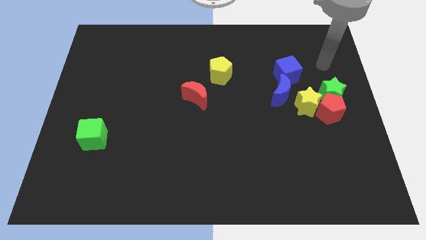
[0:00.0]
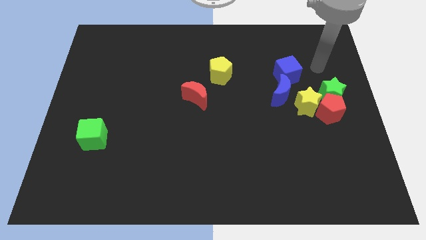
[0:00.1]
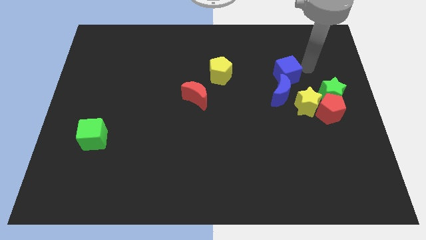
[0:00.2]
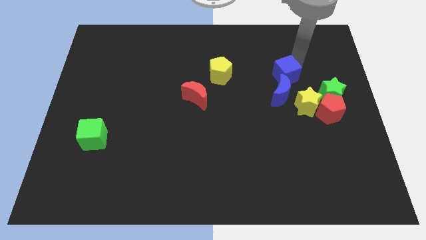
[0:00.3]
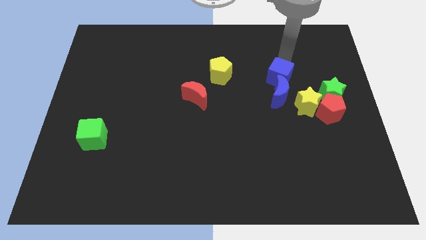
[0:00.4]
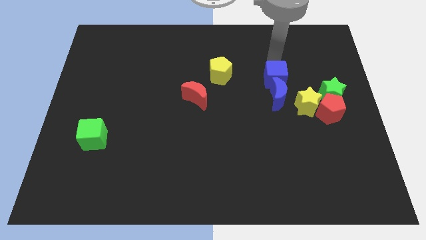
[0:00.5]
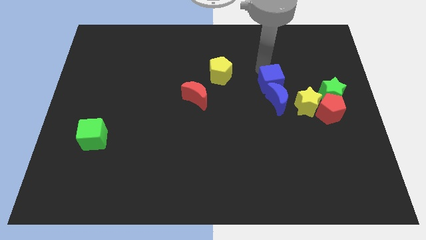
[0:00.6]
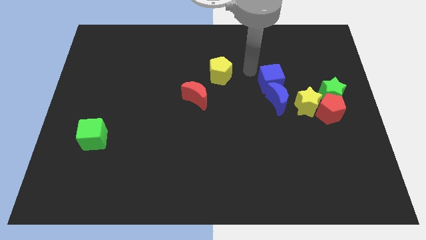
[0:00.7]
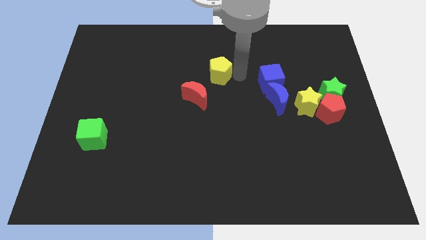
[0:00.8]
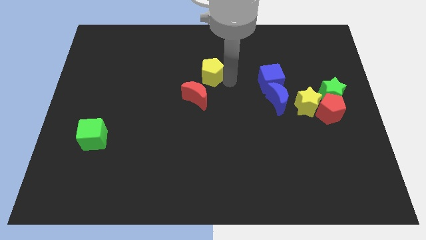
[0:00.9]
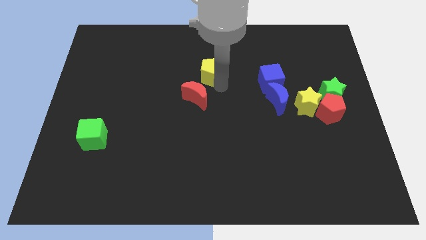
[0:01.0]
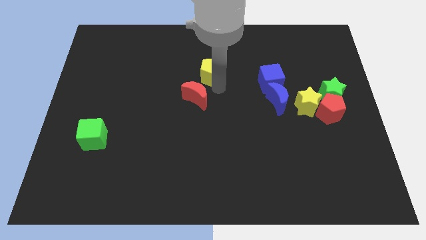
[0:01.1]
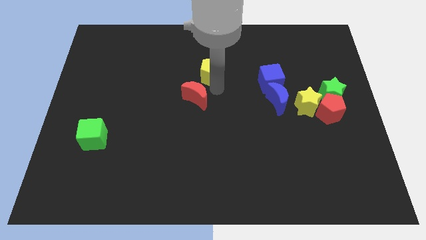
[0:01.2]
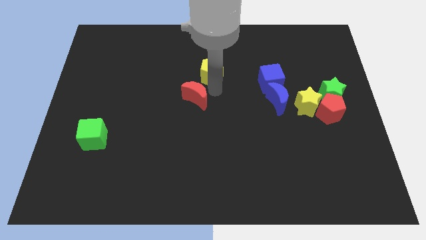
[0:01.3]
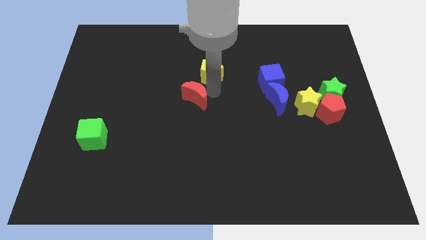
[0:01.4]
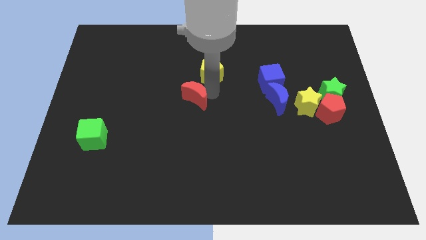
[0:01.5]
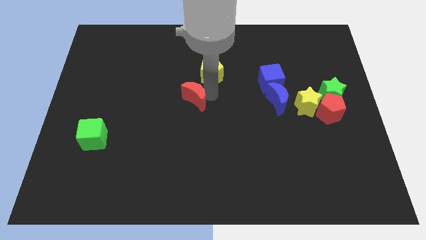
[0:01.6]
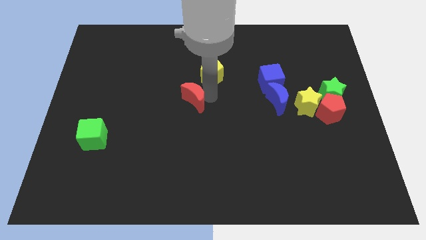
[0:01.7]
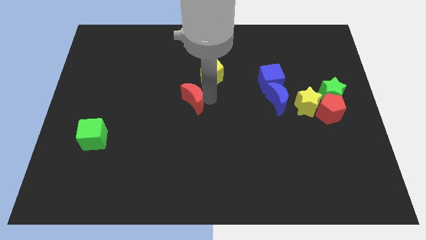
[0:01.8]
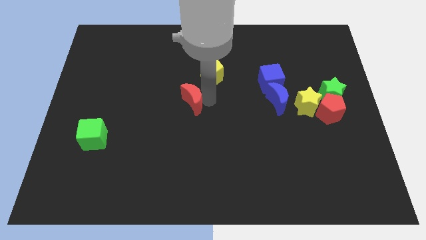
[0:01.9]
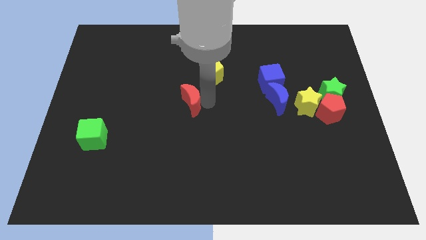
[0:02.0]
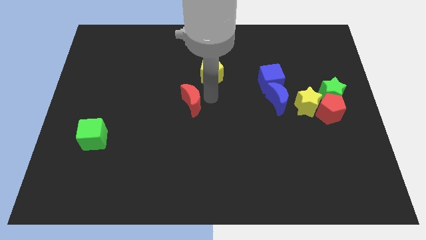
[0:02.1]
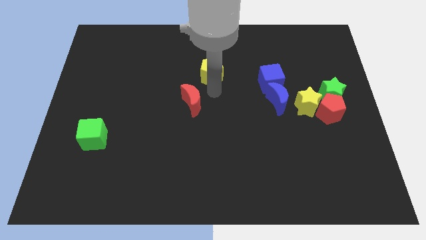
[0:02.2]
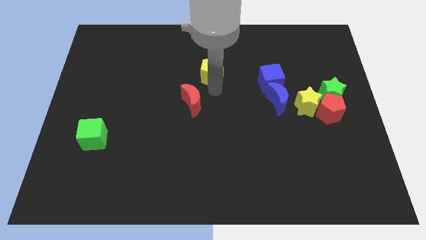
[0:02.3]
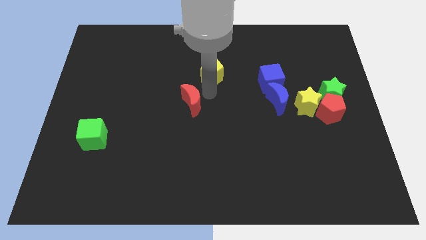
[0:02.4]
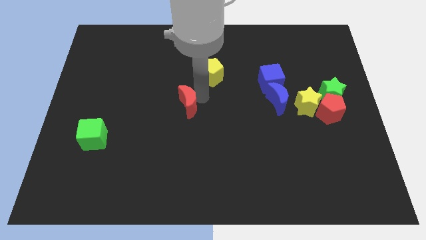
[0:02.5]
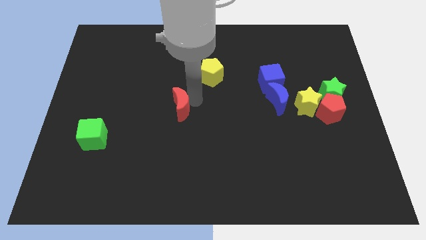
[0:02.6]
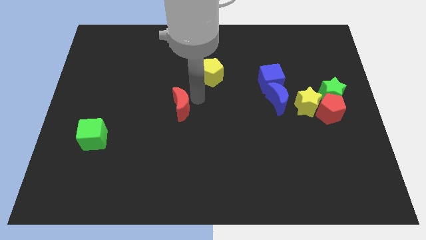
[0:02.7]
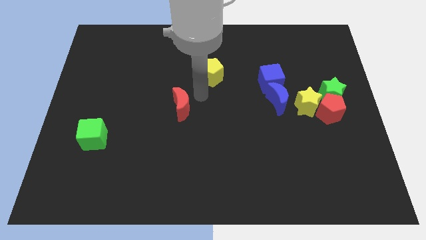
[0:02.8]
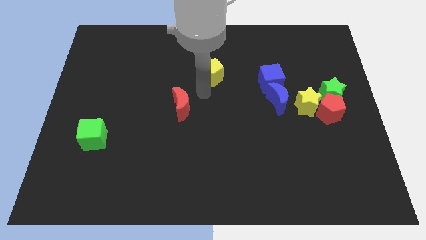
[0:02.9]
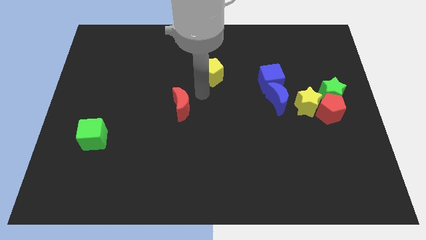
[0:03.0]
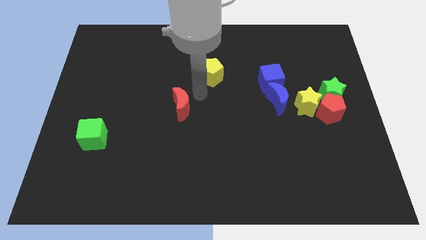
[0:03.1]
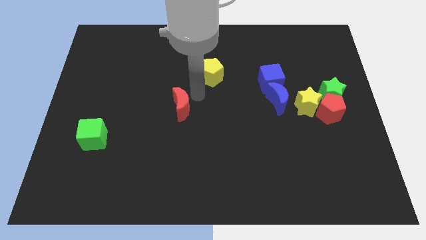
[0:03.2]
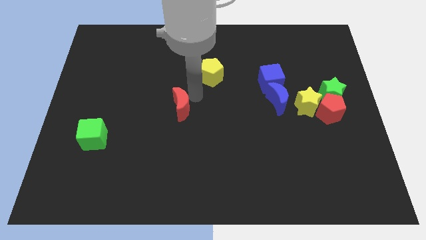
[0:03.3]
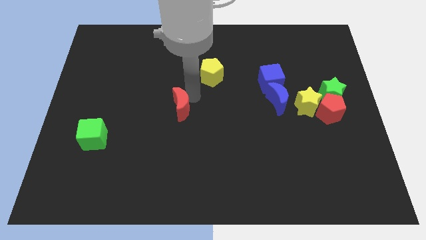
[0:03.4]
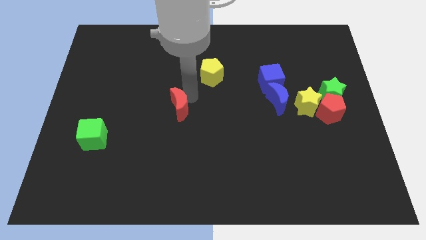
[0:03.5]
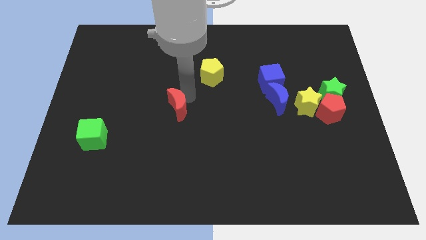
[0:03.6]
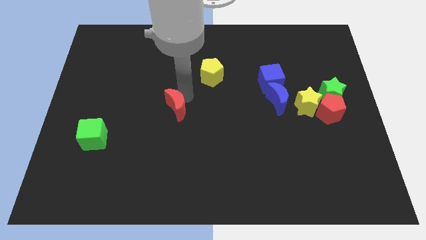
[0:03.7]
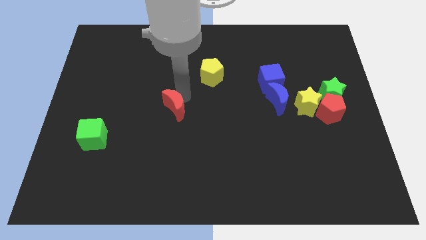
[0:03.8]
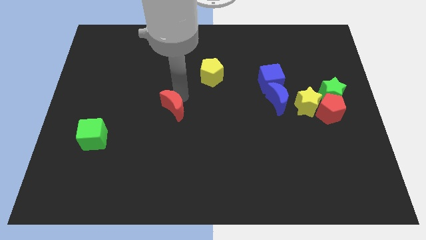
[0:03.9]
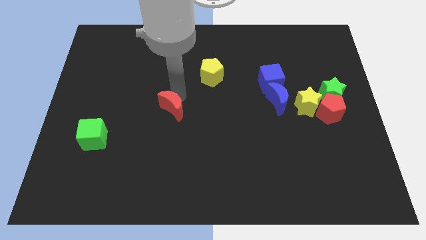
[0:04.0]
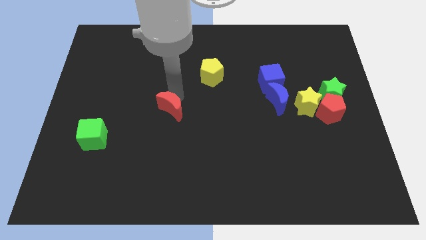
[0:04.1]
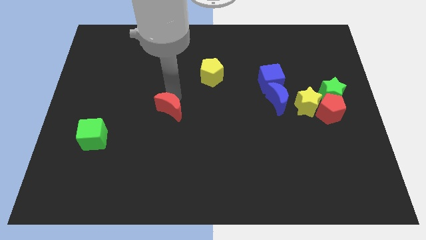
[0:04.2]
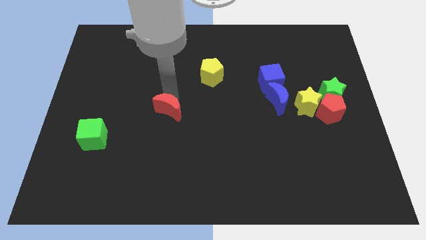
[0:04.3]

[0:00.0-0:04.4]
move the red moon somewhat down and then to the left

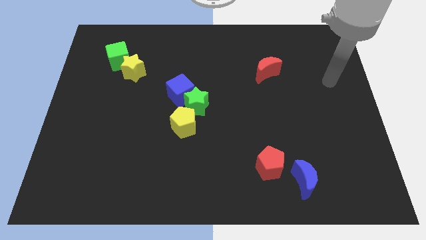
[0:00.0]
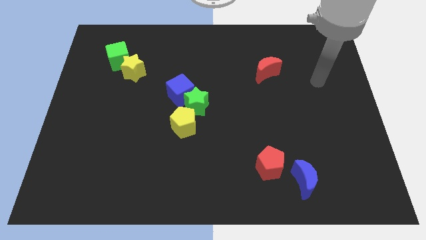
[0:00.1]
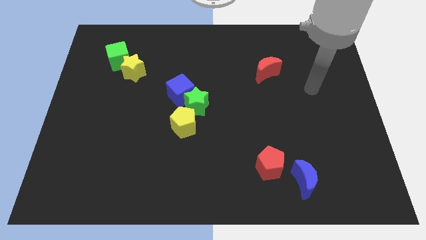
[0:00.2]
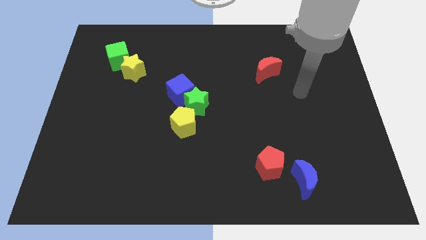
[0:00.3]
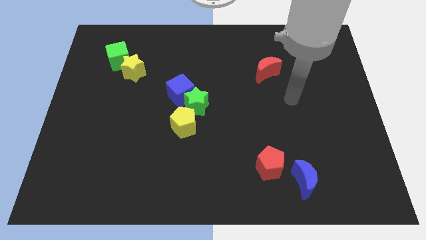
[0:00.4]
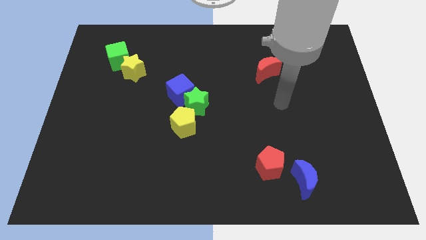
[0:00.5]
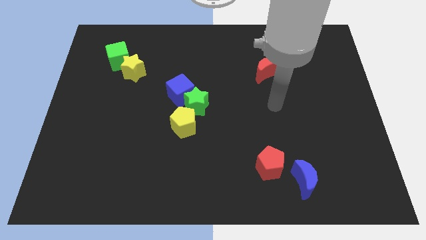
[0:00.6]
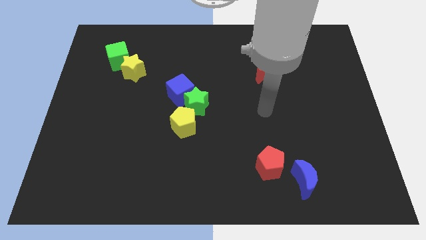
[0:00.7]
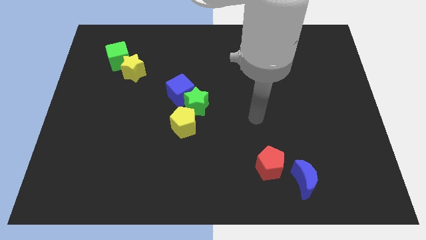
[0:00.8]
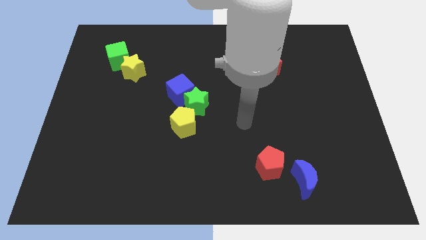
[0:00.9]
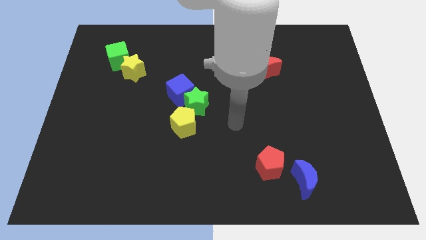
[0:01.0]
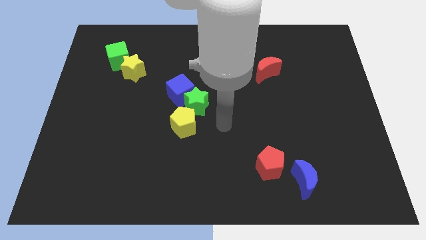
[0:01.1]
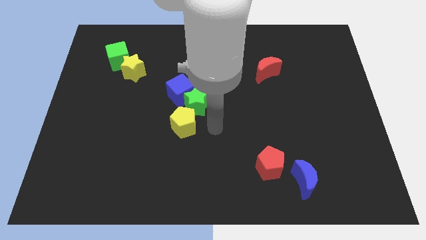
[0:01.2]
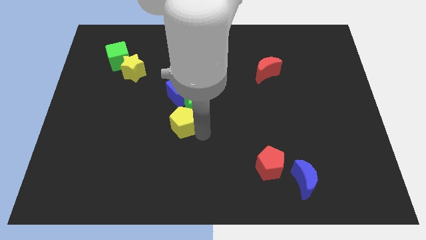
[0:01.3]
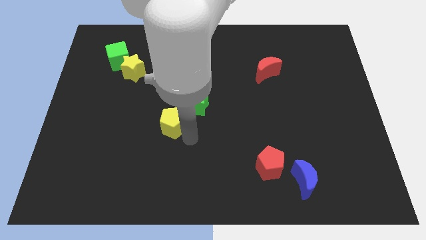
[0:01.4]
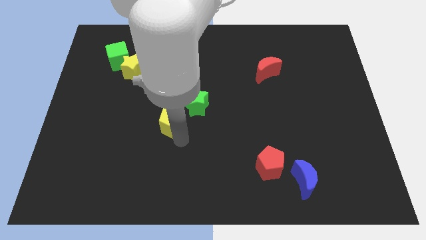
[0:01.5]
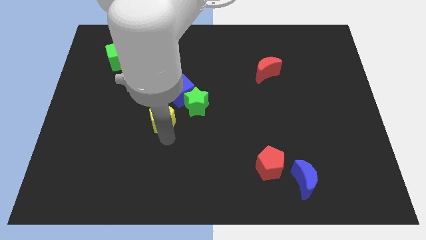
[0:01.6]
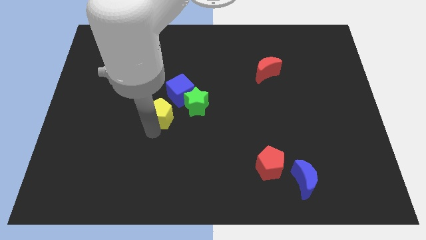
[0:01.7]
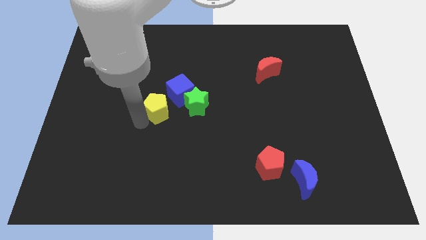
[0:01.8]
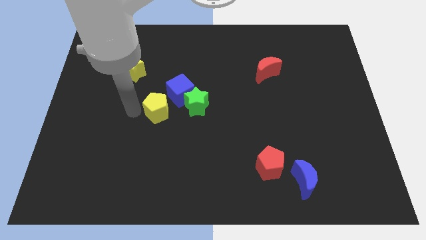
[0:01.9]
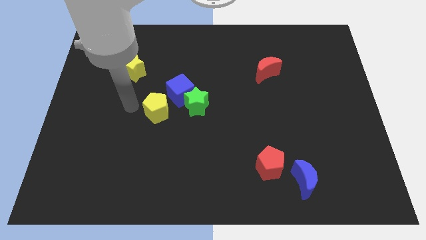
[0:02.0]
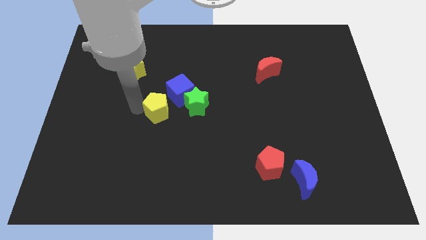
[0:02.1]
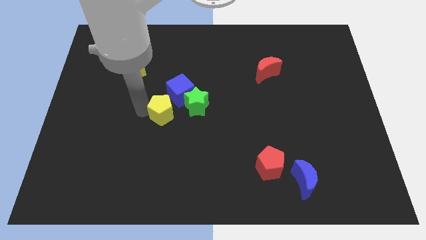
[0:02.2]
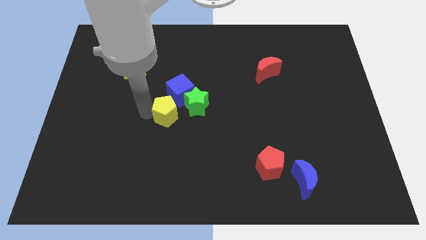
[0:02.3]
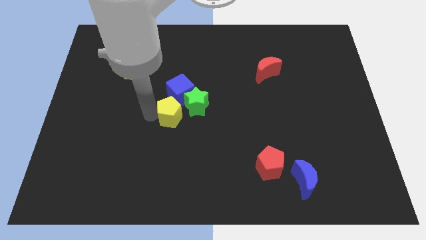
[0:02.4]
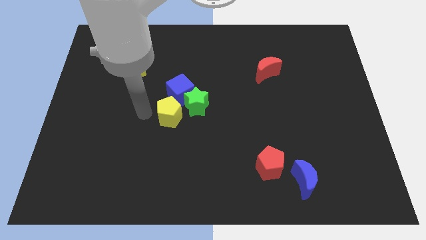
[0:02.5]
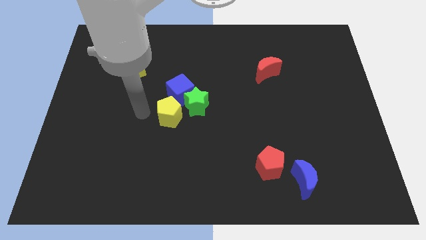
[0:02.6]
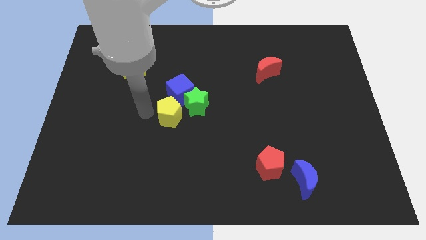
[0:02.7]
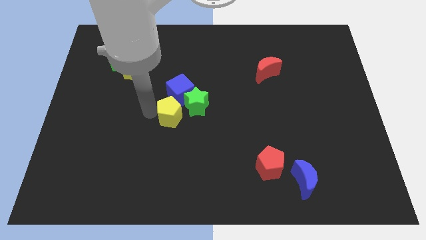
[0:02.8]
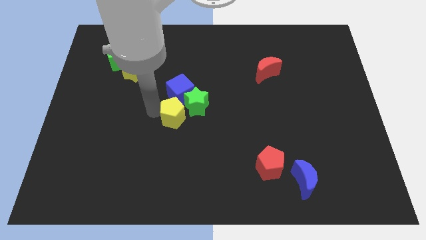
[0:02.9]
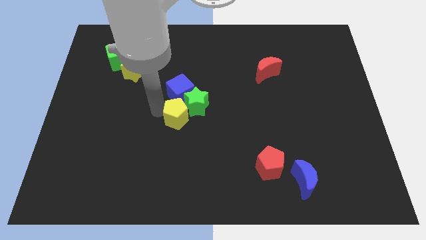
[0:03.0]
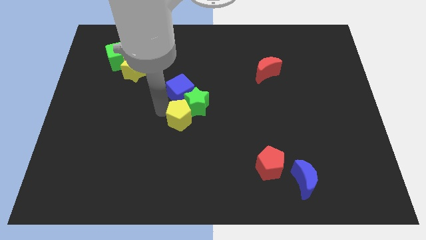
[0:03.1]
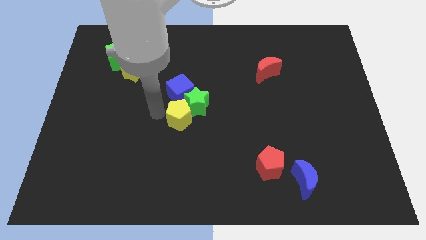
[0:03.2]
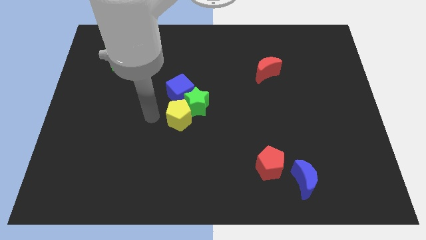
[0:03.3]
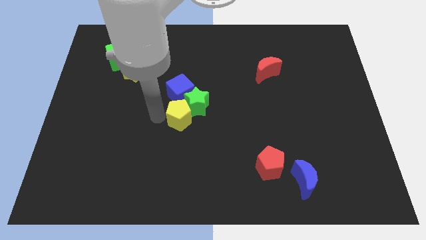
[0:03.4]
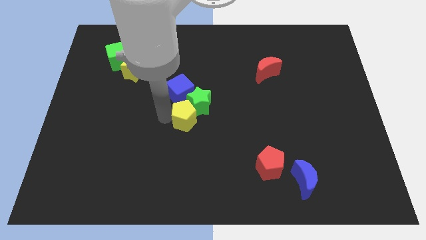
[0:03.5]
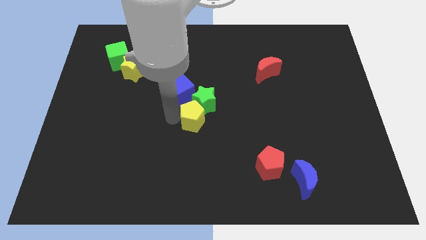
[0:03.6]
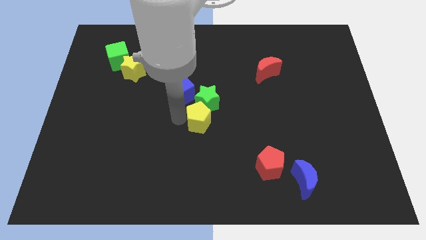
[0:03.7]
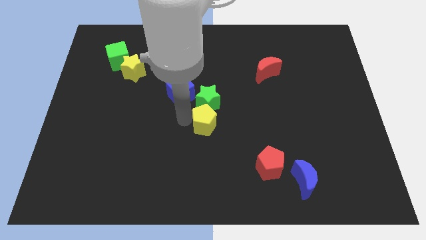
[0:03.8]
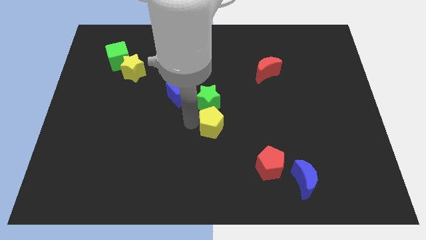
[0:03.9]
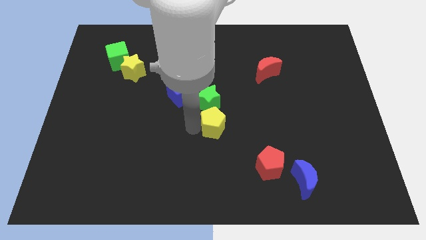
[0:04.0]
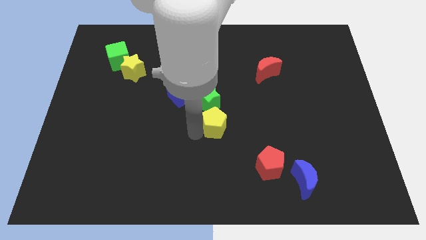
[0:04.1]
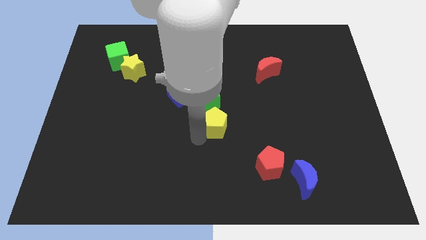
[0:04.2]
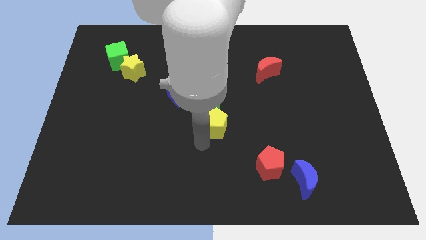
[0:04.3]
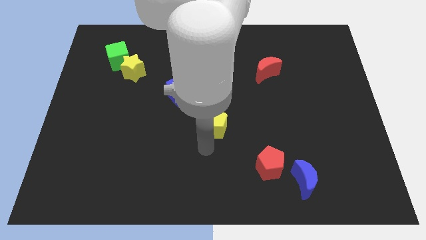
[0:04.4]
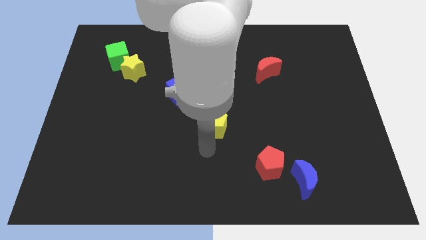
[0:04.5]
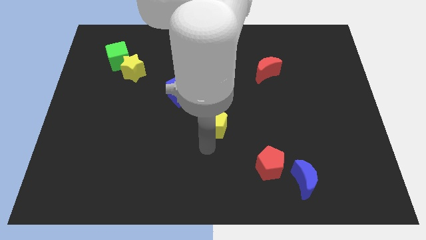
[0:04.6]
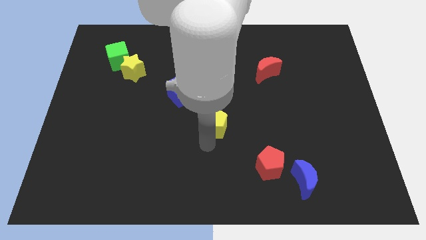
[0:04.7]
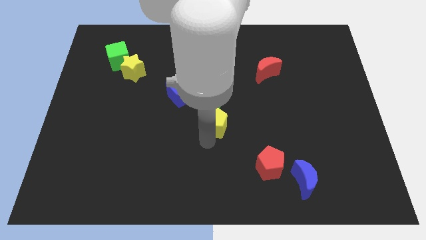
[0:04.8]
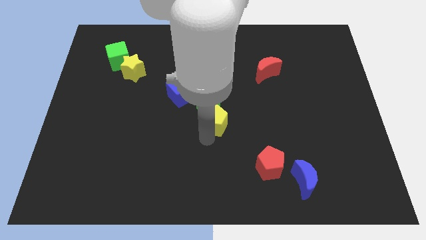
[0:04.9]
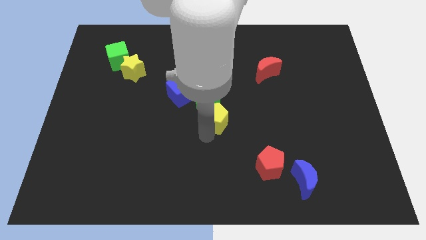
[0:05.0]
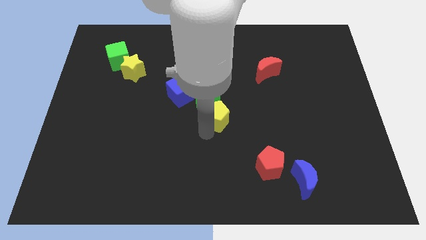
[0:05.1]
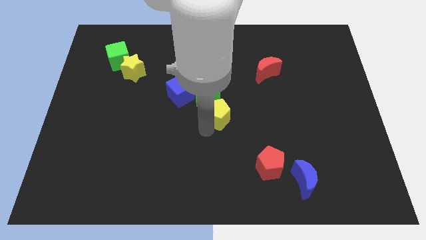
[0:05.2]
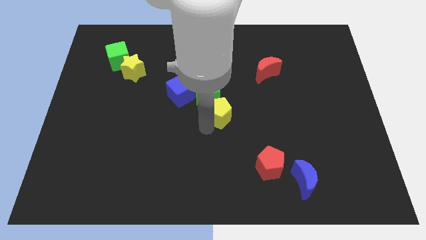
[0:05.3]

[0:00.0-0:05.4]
push the yellow pentagon upwards and to the right diagonally a bit
